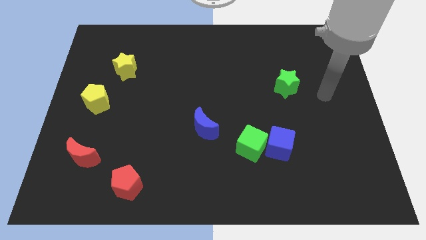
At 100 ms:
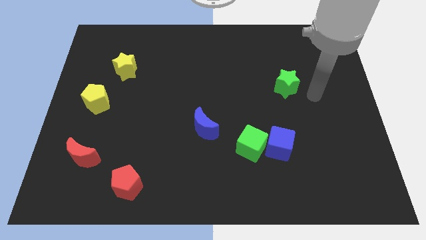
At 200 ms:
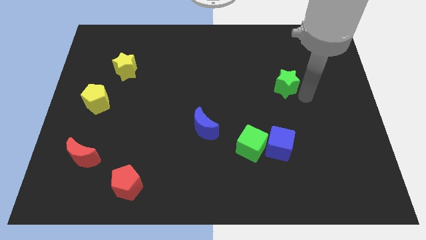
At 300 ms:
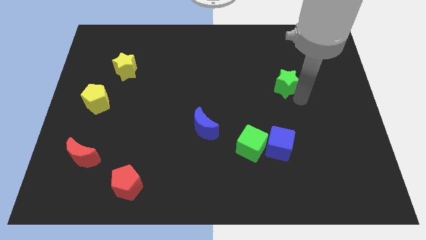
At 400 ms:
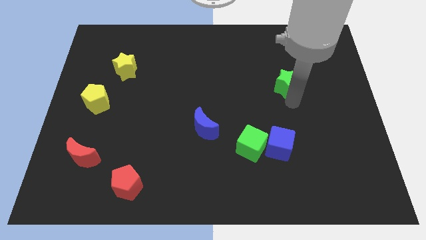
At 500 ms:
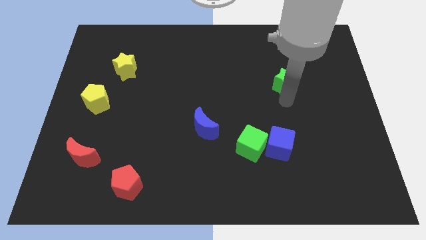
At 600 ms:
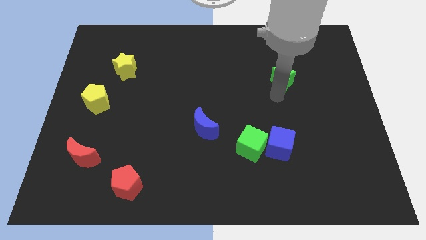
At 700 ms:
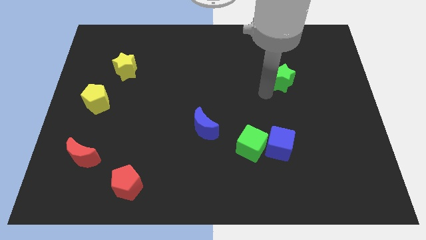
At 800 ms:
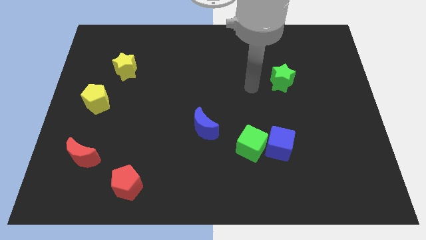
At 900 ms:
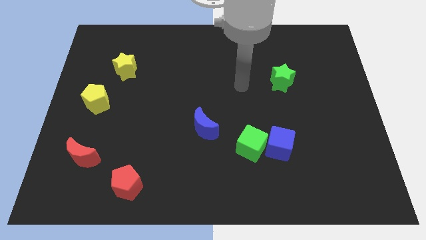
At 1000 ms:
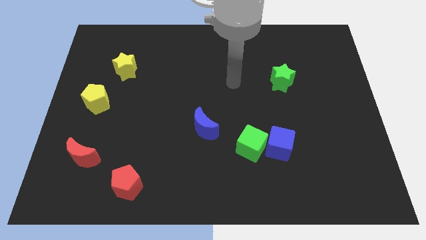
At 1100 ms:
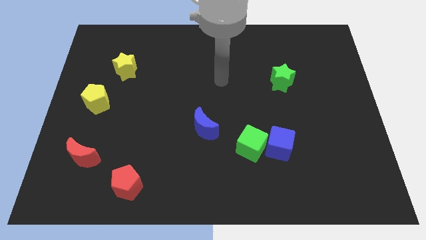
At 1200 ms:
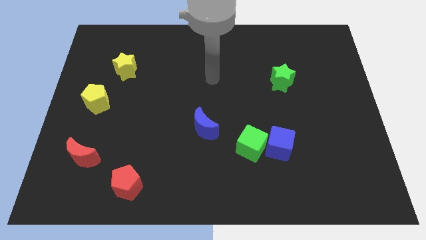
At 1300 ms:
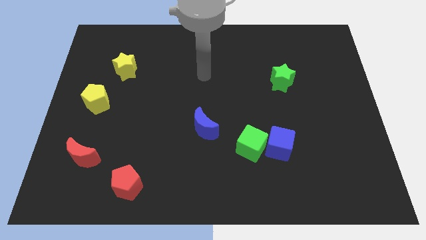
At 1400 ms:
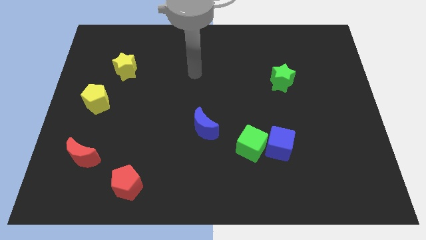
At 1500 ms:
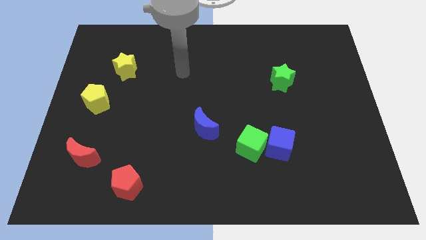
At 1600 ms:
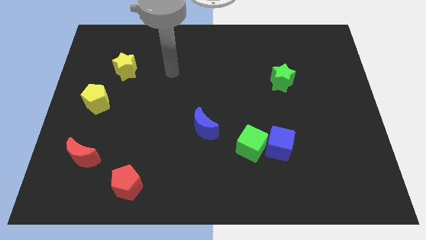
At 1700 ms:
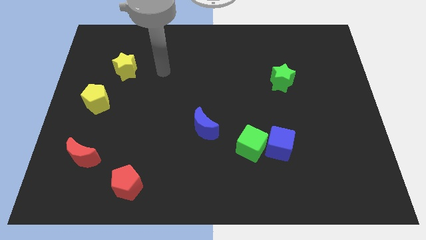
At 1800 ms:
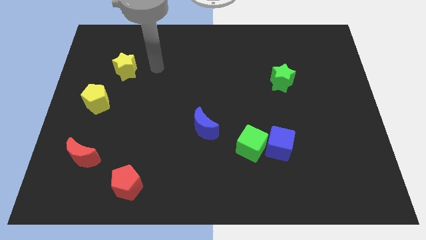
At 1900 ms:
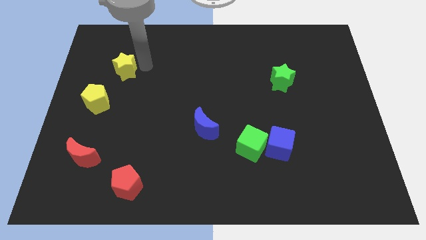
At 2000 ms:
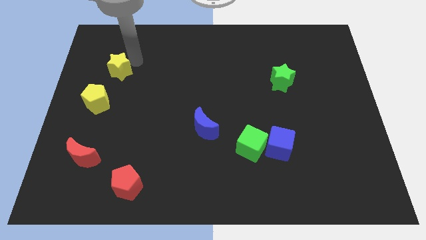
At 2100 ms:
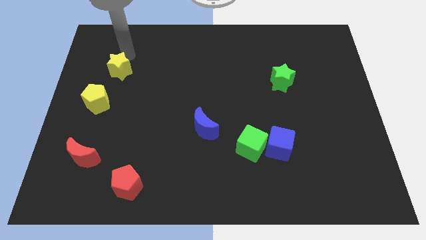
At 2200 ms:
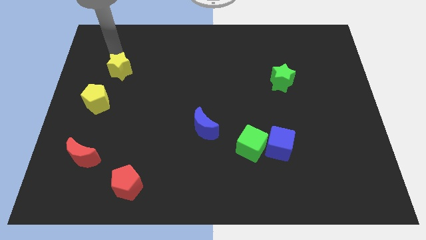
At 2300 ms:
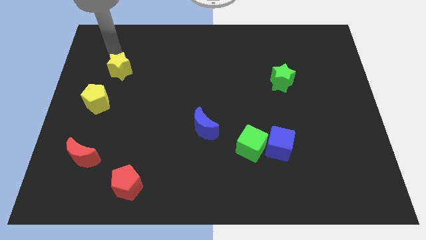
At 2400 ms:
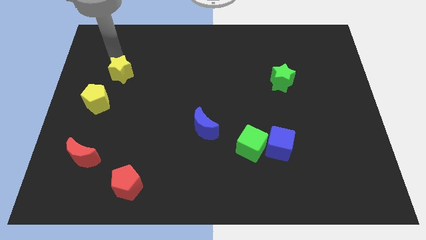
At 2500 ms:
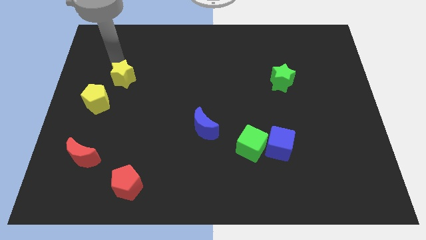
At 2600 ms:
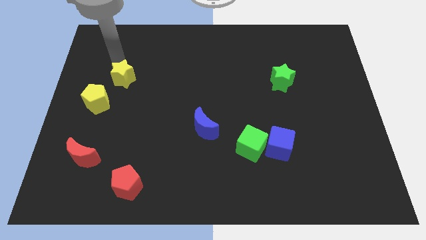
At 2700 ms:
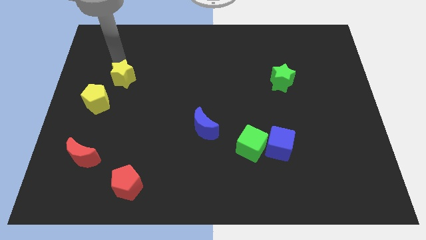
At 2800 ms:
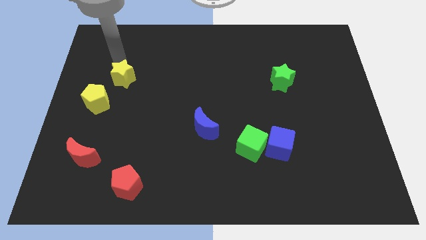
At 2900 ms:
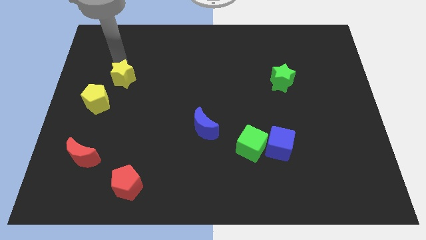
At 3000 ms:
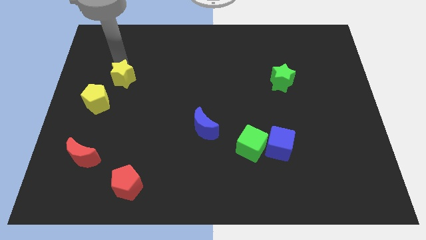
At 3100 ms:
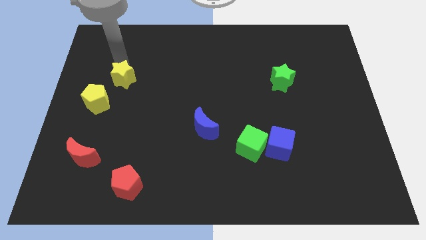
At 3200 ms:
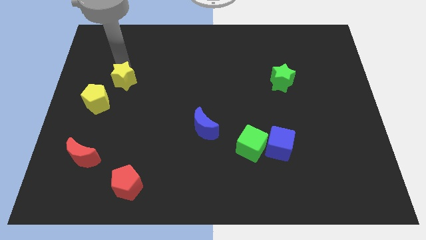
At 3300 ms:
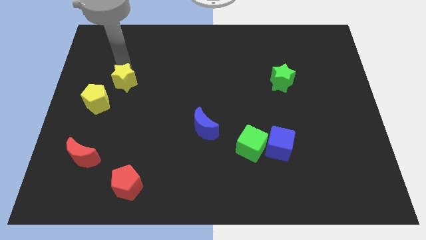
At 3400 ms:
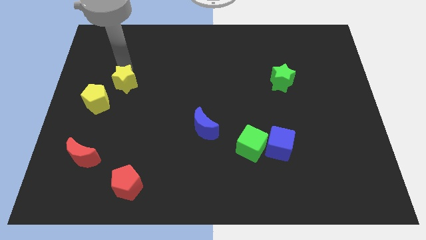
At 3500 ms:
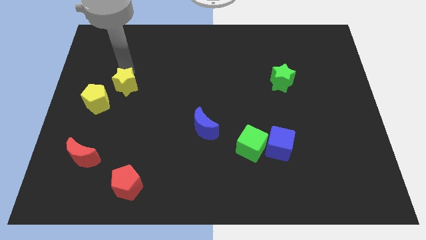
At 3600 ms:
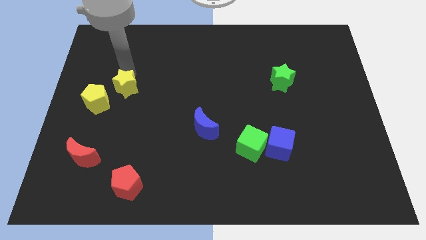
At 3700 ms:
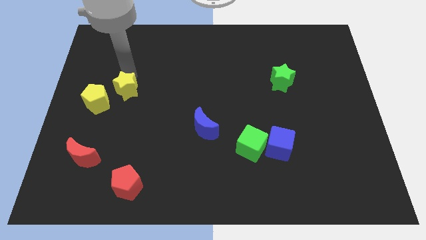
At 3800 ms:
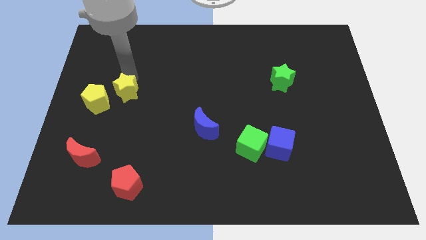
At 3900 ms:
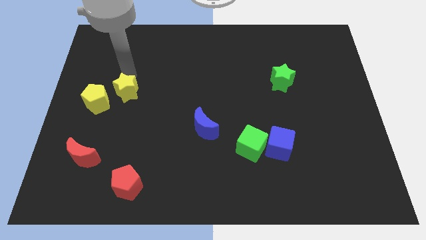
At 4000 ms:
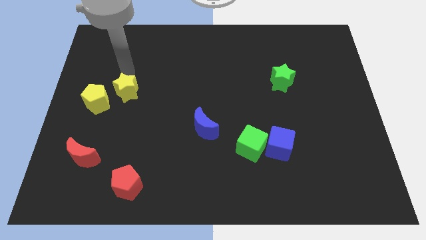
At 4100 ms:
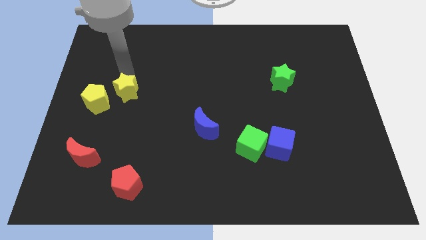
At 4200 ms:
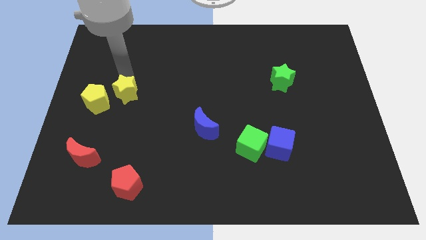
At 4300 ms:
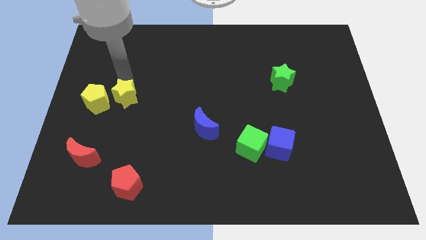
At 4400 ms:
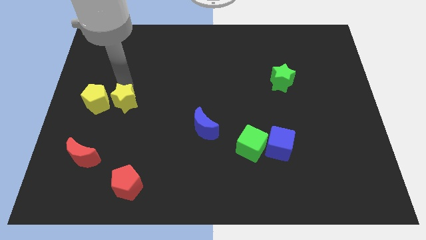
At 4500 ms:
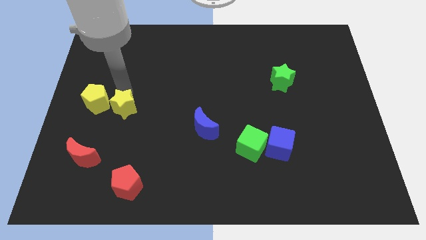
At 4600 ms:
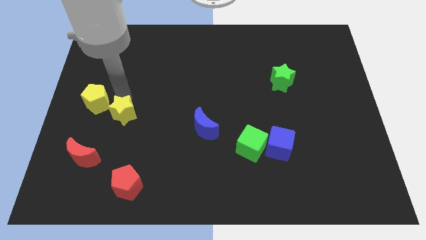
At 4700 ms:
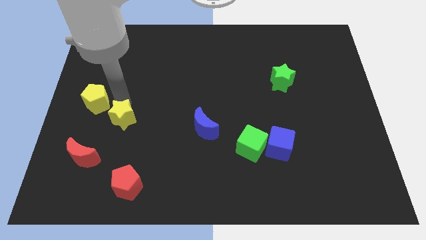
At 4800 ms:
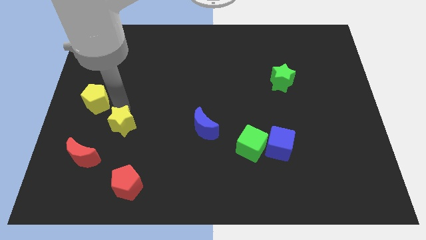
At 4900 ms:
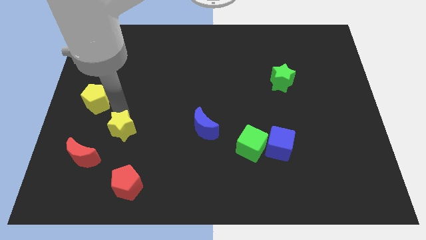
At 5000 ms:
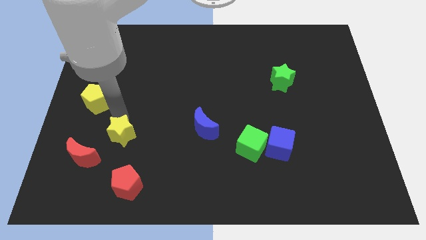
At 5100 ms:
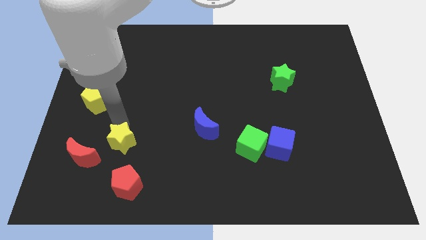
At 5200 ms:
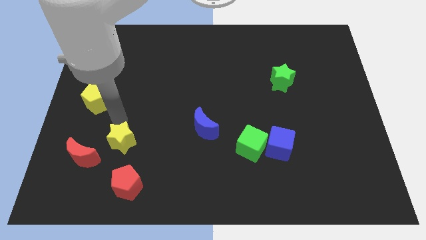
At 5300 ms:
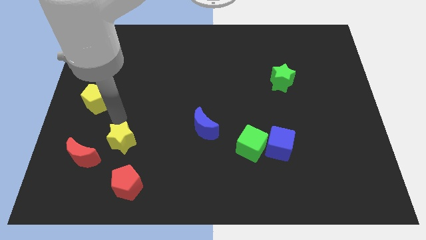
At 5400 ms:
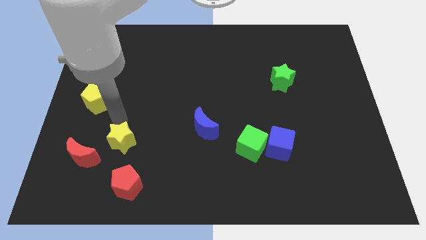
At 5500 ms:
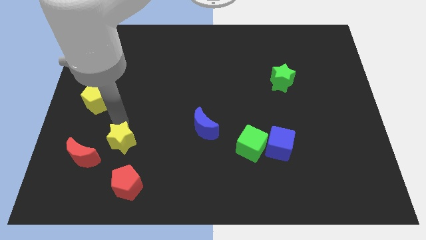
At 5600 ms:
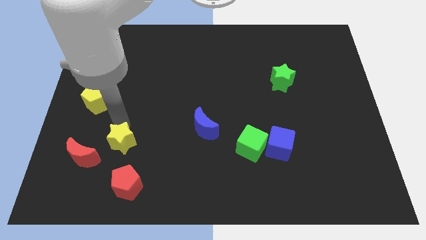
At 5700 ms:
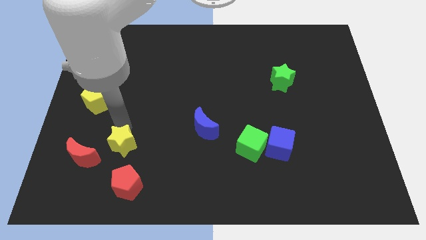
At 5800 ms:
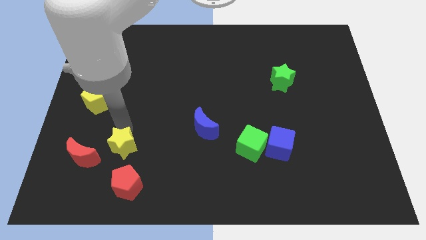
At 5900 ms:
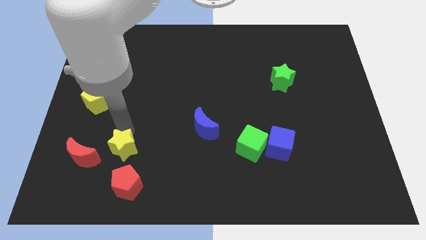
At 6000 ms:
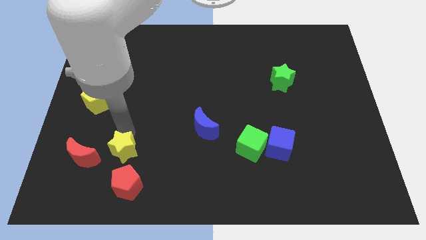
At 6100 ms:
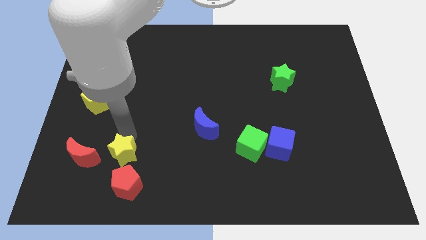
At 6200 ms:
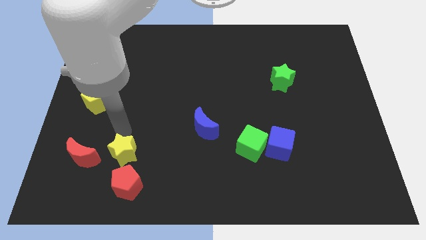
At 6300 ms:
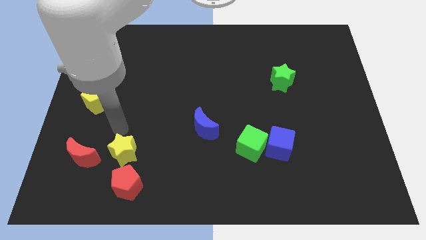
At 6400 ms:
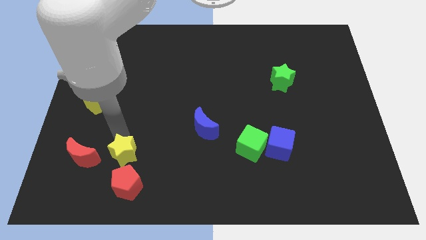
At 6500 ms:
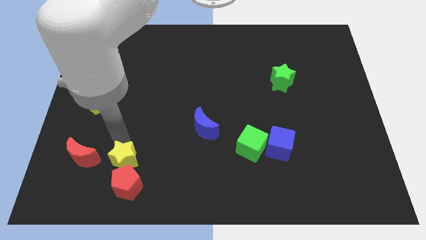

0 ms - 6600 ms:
move the yellow star close to the red pentagon

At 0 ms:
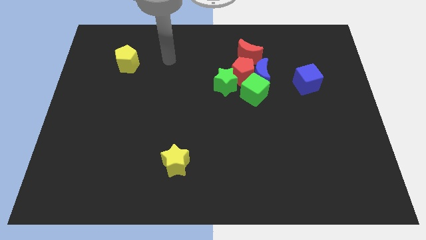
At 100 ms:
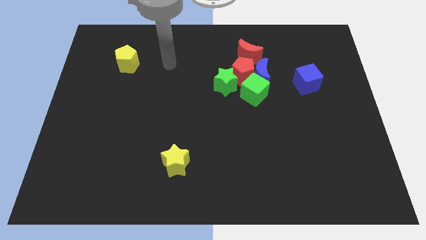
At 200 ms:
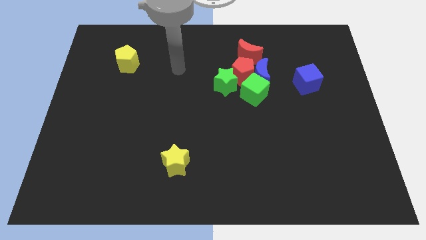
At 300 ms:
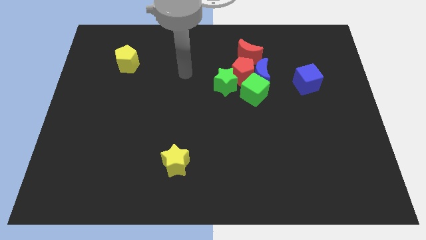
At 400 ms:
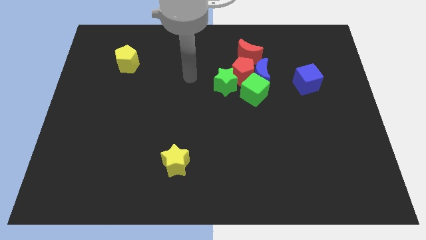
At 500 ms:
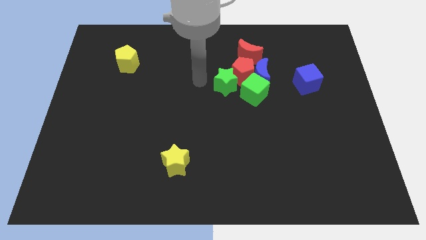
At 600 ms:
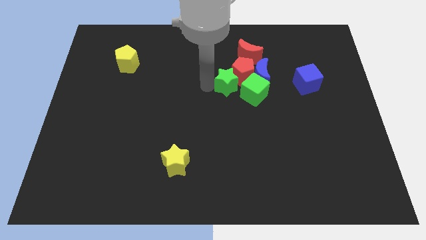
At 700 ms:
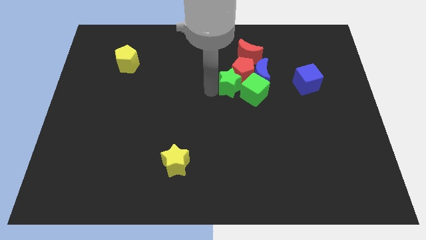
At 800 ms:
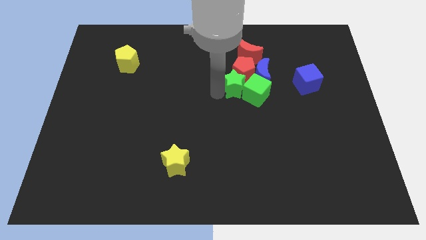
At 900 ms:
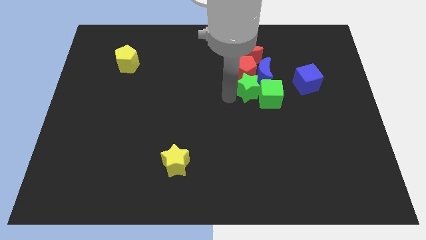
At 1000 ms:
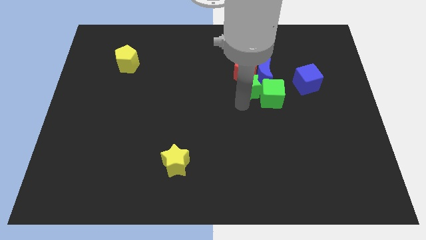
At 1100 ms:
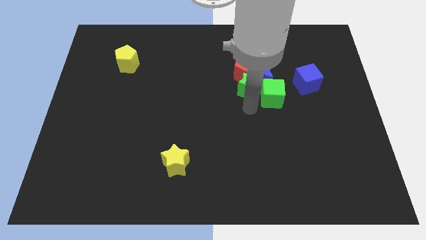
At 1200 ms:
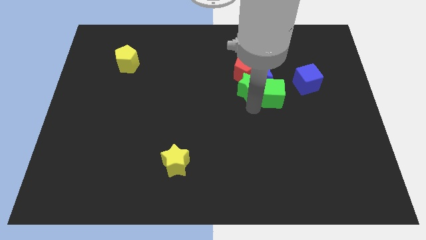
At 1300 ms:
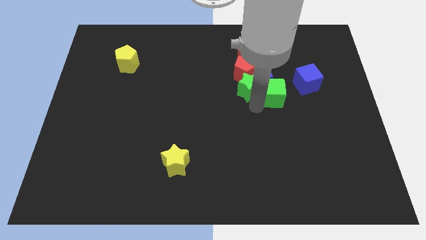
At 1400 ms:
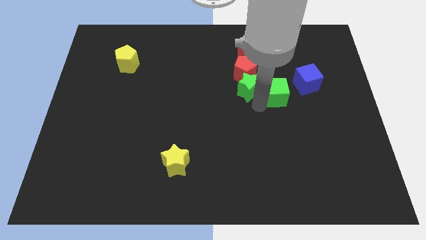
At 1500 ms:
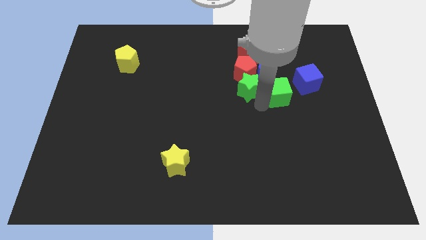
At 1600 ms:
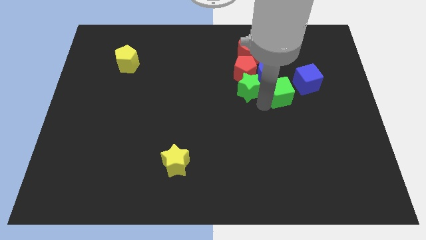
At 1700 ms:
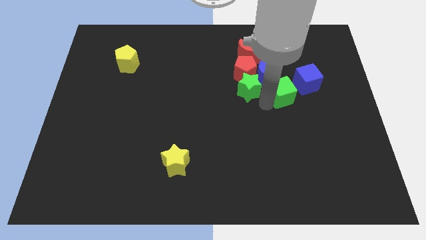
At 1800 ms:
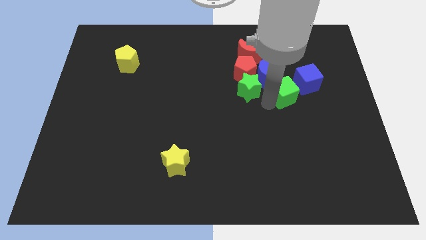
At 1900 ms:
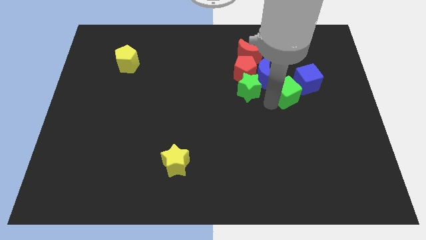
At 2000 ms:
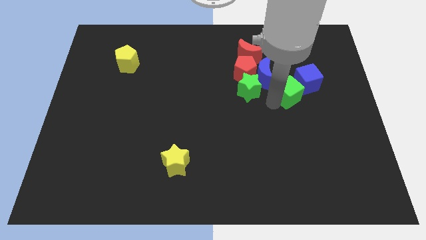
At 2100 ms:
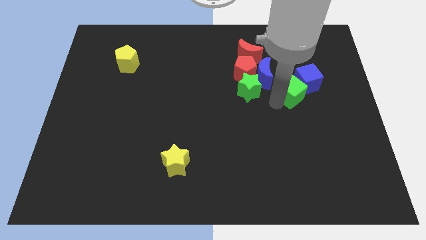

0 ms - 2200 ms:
slide the green cube next to the blue cube
